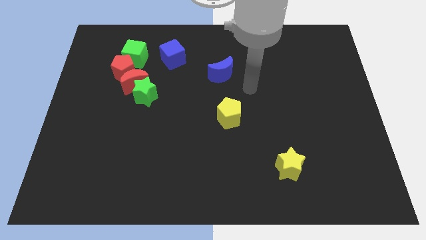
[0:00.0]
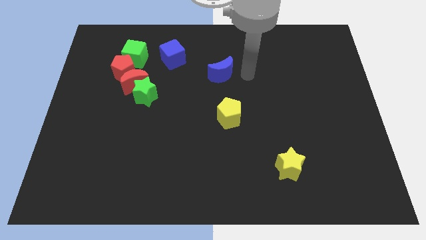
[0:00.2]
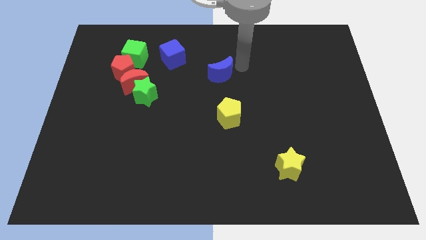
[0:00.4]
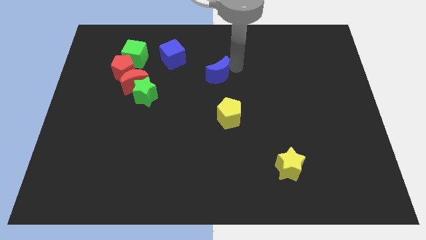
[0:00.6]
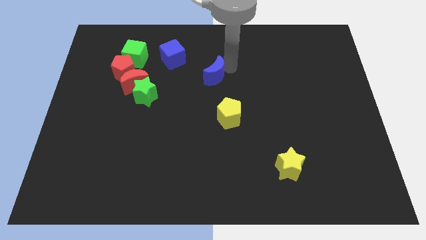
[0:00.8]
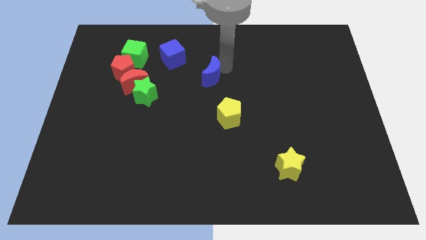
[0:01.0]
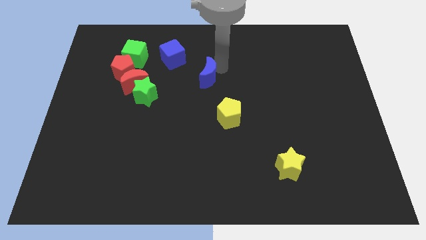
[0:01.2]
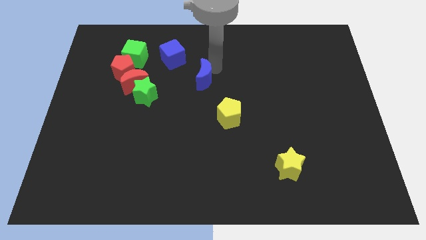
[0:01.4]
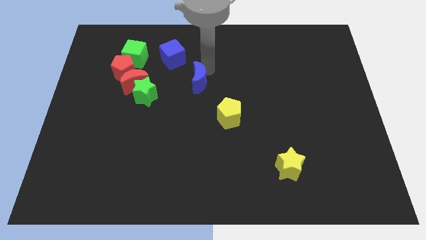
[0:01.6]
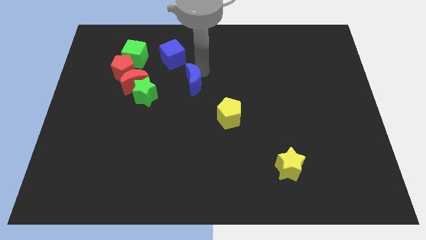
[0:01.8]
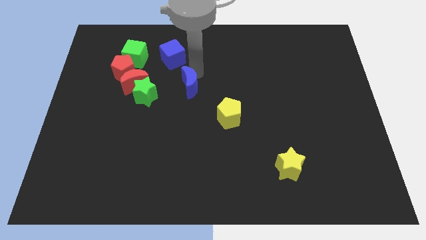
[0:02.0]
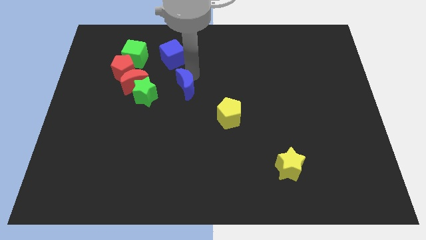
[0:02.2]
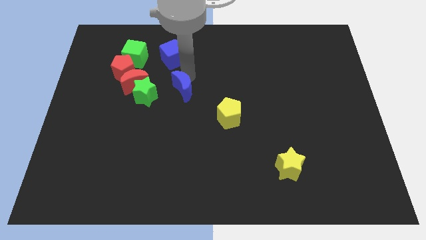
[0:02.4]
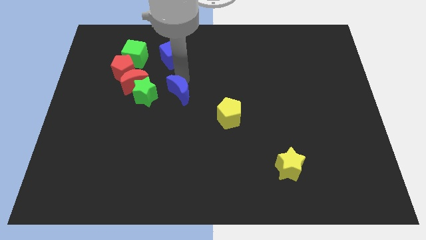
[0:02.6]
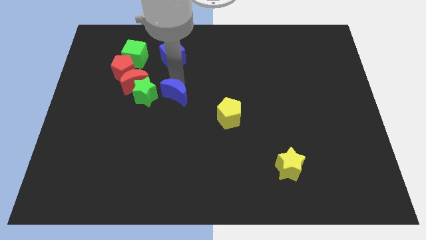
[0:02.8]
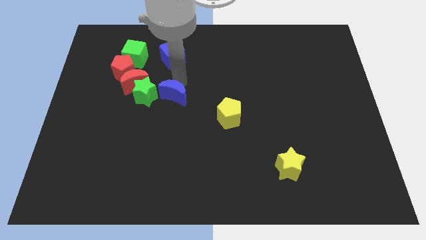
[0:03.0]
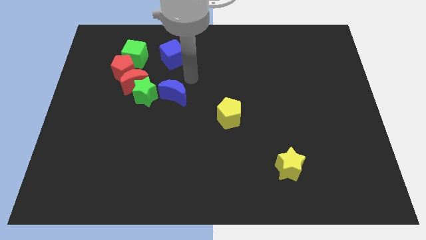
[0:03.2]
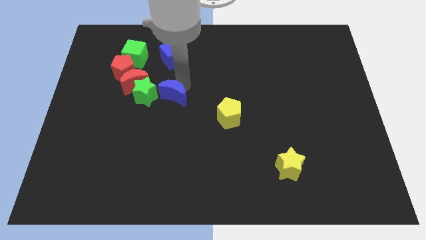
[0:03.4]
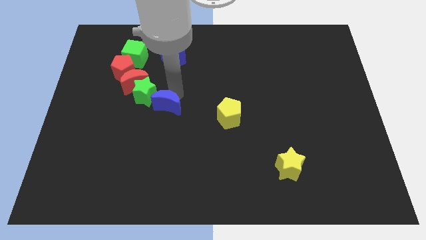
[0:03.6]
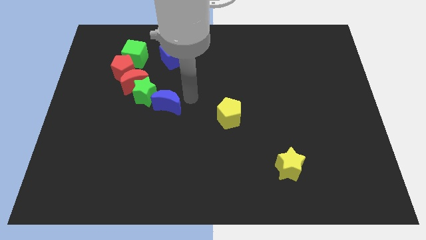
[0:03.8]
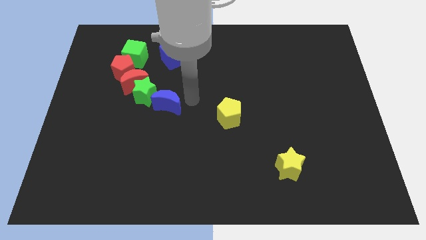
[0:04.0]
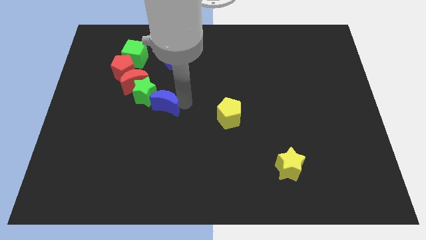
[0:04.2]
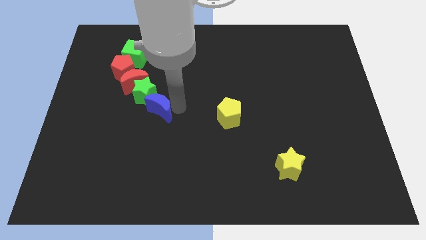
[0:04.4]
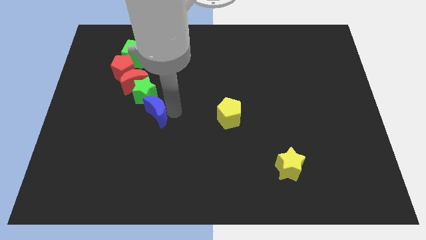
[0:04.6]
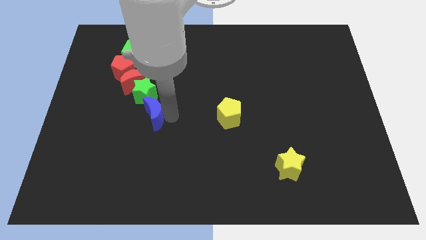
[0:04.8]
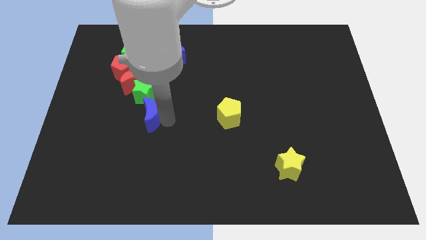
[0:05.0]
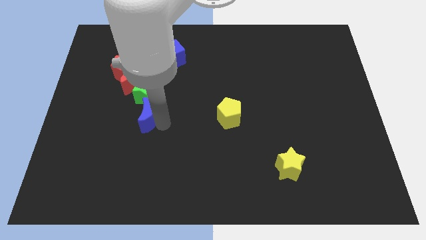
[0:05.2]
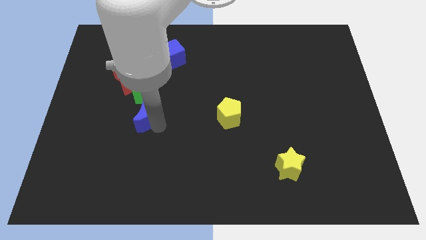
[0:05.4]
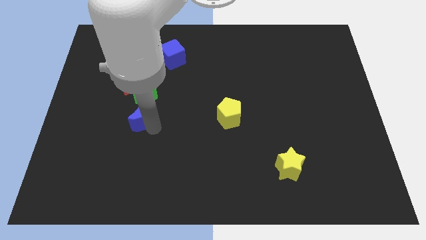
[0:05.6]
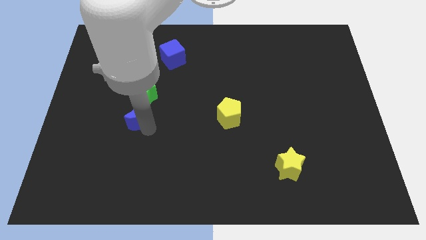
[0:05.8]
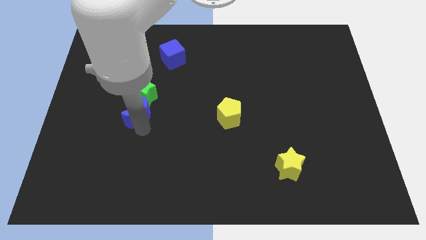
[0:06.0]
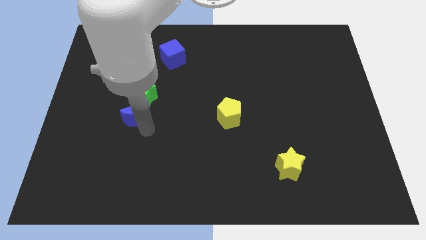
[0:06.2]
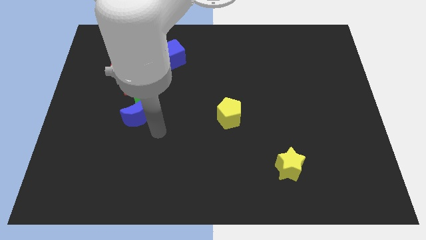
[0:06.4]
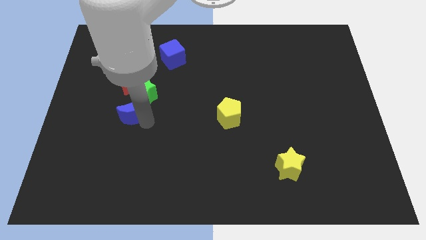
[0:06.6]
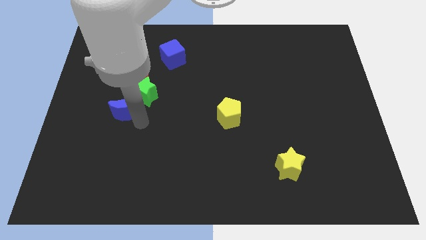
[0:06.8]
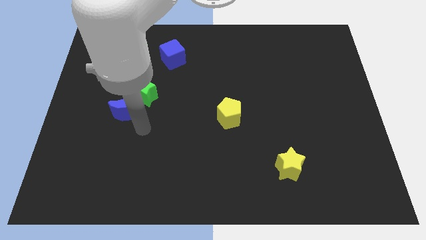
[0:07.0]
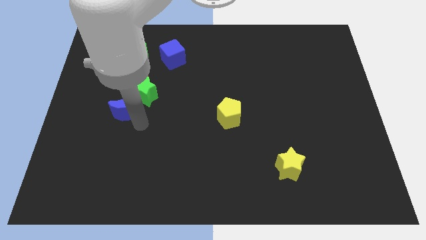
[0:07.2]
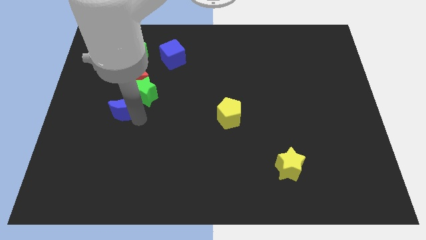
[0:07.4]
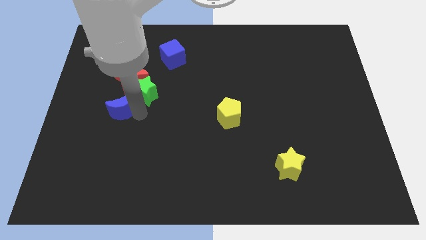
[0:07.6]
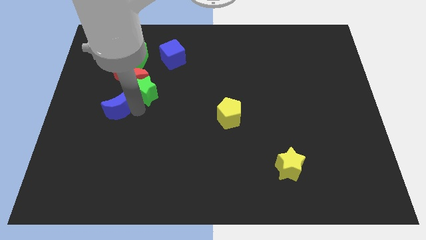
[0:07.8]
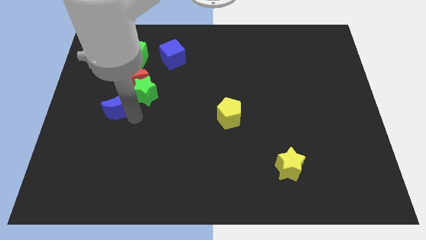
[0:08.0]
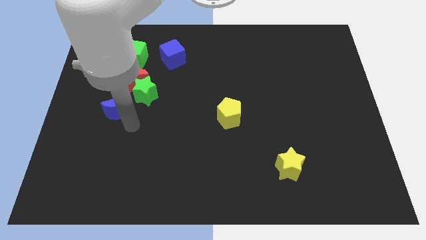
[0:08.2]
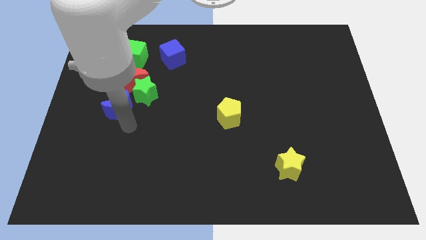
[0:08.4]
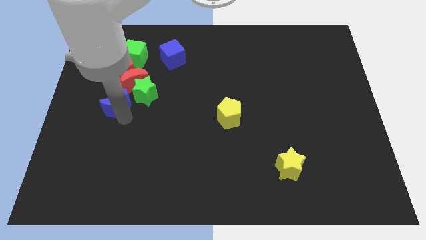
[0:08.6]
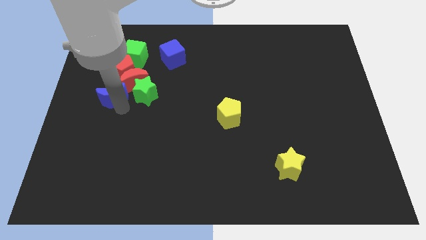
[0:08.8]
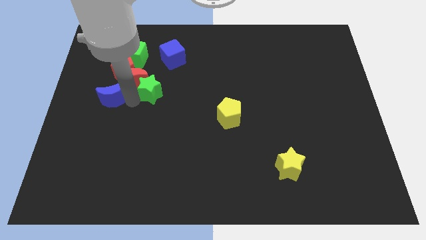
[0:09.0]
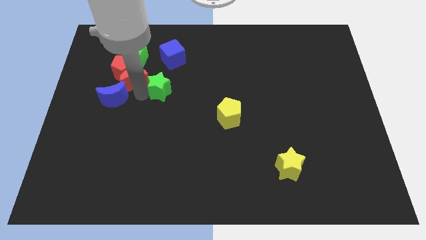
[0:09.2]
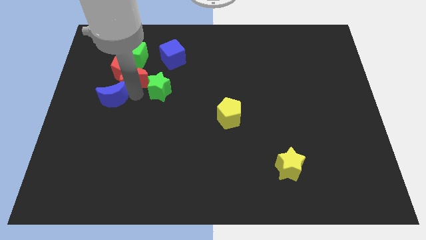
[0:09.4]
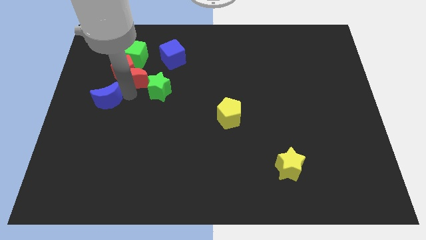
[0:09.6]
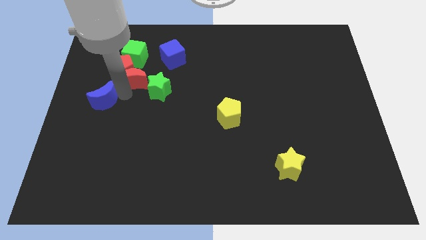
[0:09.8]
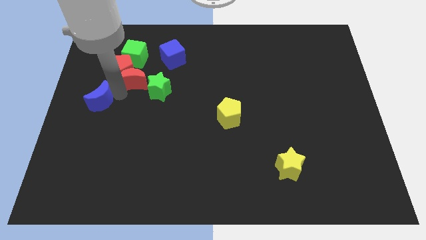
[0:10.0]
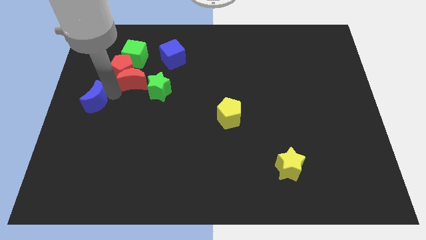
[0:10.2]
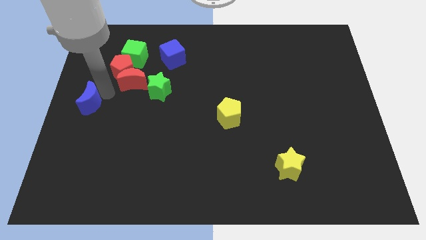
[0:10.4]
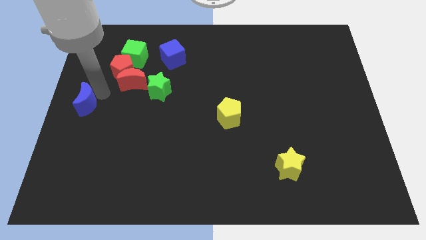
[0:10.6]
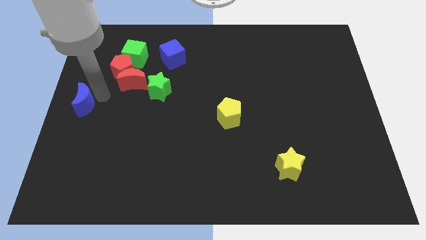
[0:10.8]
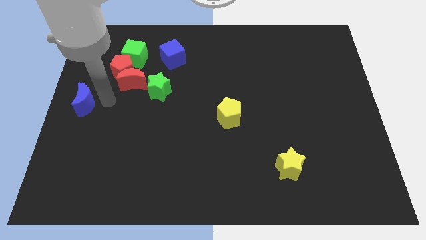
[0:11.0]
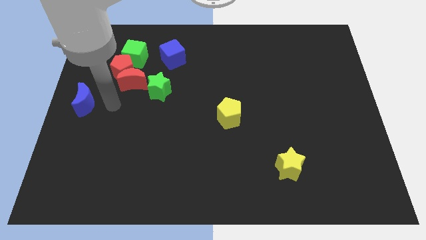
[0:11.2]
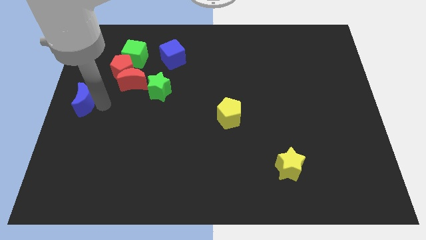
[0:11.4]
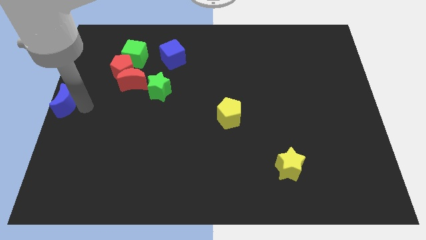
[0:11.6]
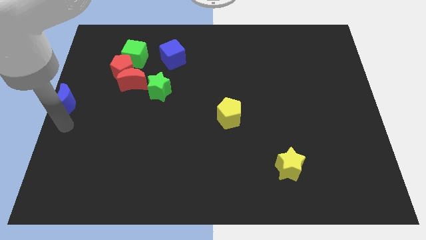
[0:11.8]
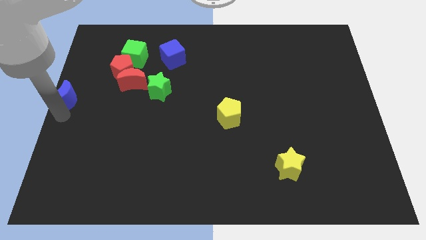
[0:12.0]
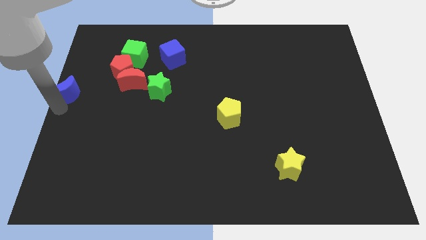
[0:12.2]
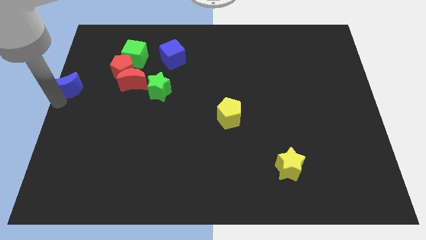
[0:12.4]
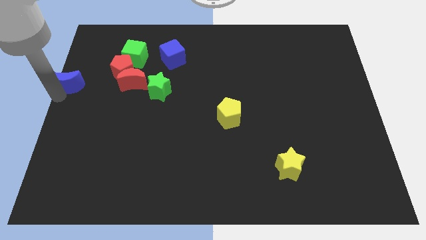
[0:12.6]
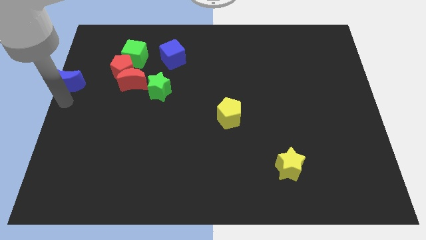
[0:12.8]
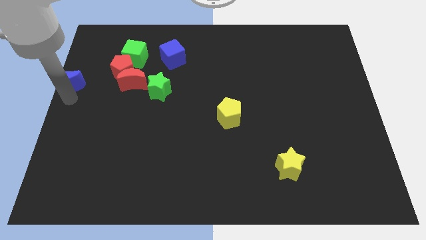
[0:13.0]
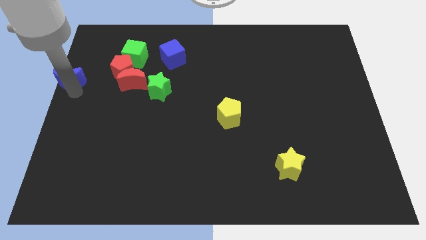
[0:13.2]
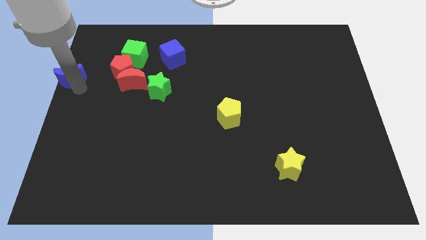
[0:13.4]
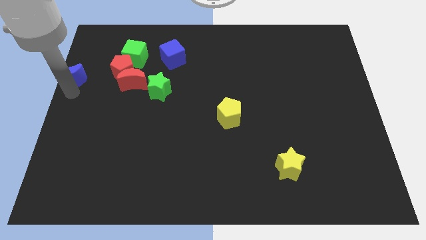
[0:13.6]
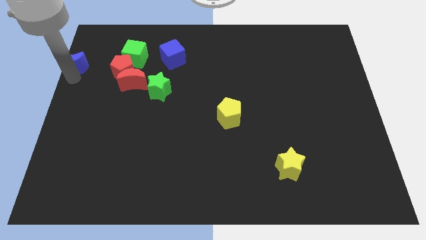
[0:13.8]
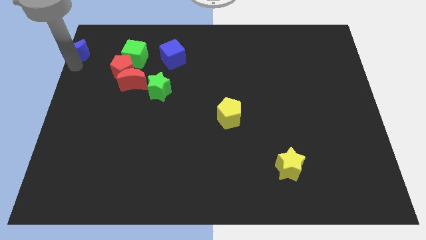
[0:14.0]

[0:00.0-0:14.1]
move the blue moon to the upper left corner
